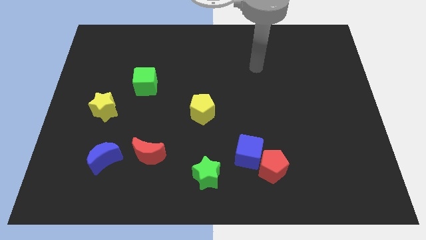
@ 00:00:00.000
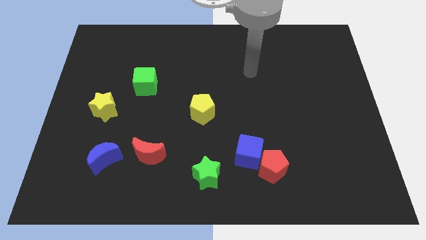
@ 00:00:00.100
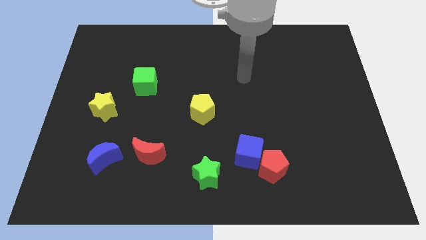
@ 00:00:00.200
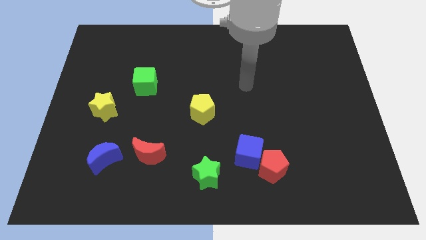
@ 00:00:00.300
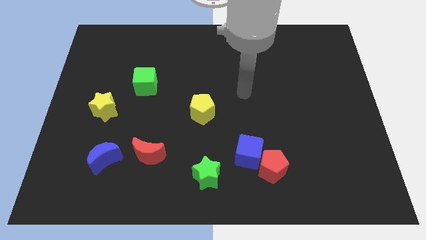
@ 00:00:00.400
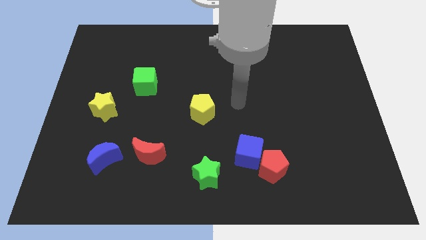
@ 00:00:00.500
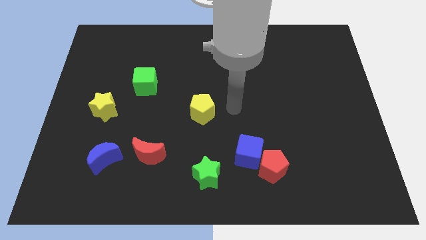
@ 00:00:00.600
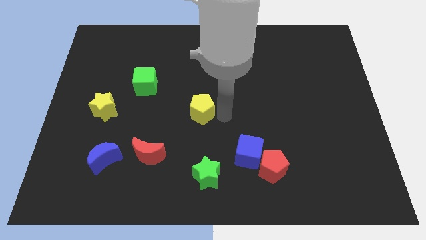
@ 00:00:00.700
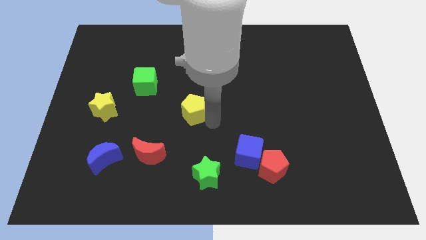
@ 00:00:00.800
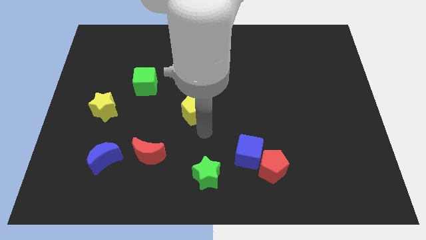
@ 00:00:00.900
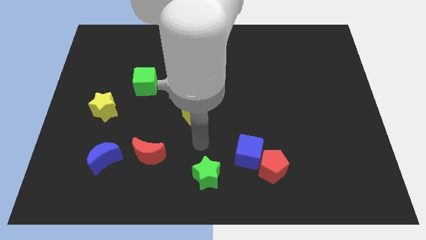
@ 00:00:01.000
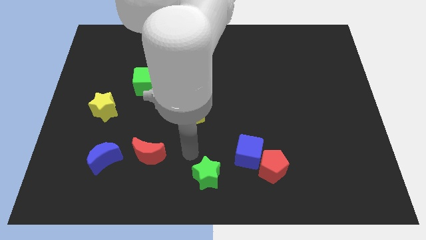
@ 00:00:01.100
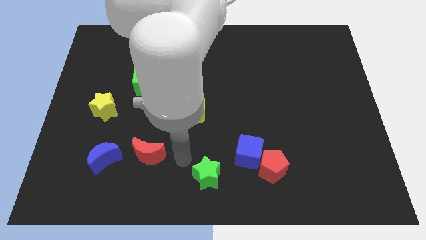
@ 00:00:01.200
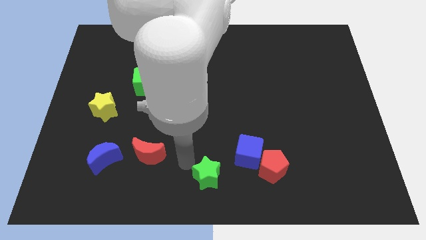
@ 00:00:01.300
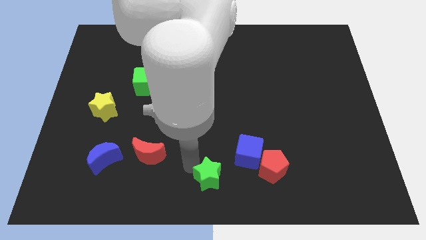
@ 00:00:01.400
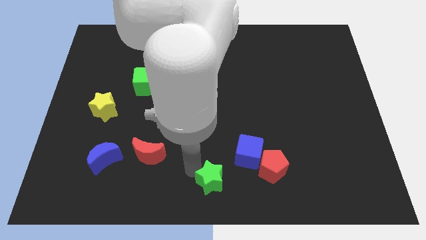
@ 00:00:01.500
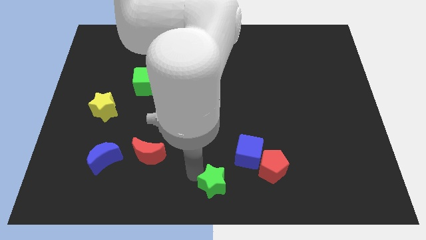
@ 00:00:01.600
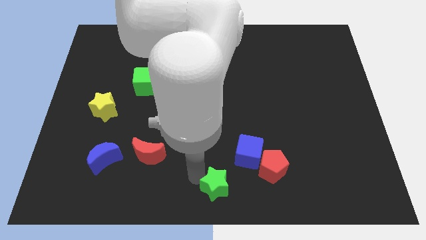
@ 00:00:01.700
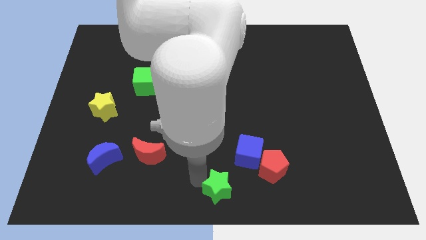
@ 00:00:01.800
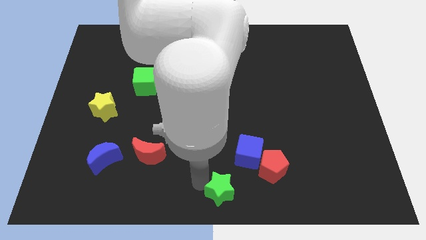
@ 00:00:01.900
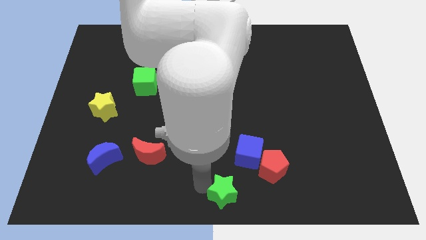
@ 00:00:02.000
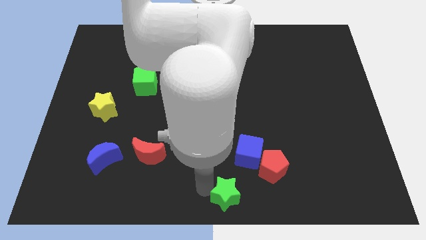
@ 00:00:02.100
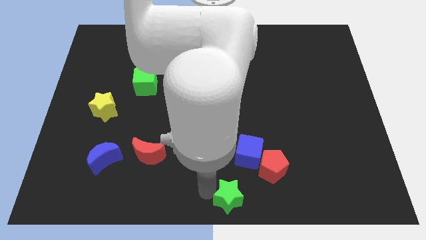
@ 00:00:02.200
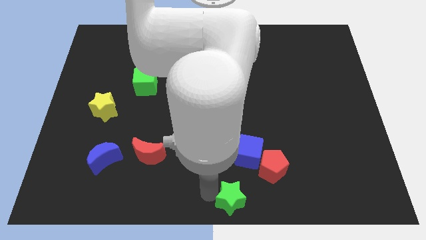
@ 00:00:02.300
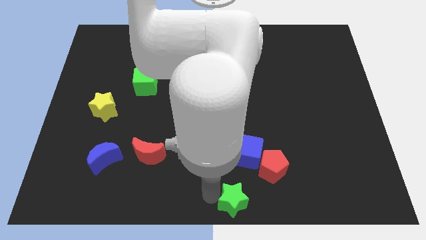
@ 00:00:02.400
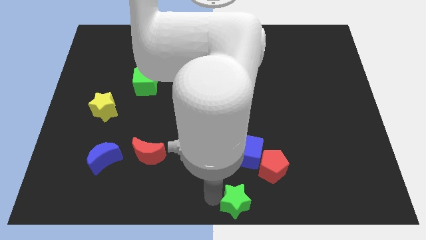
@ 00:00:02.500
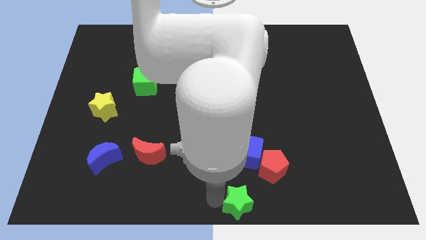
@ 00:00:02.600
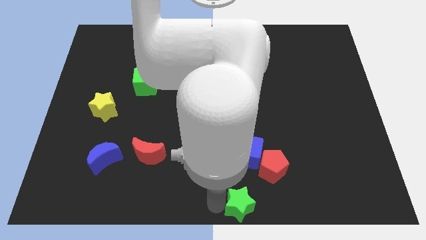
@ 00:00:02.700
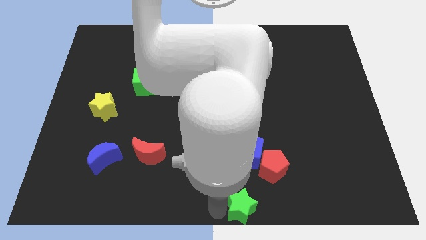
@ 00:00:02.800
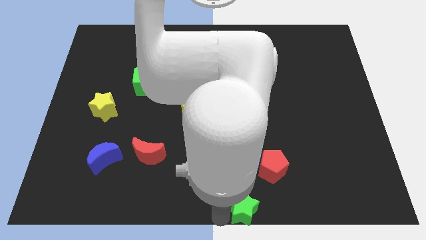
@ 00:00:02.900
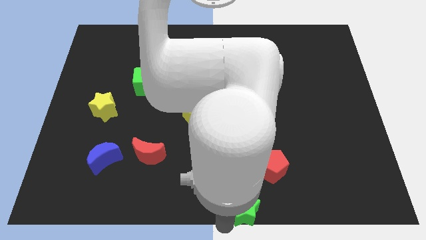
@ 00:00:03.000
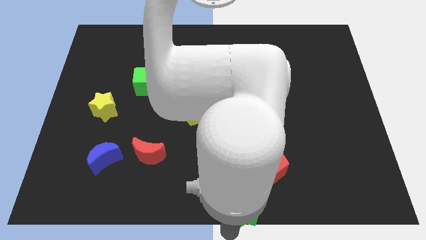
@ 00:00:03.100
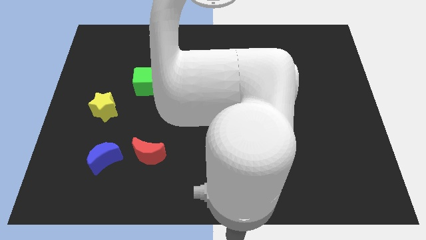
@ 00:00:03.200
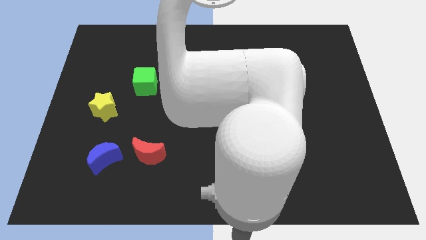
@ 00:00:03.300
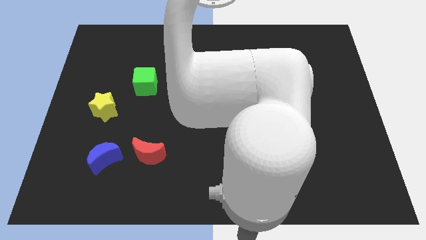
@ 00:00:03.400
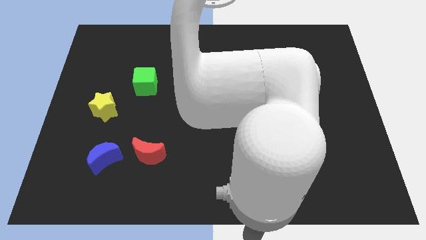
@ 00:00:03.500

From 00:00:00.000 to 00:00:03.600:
push the green star a little to the right

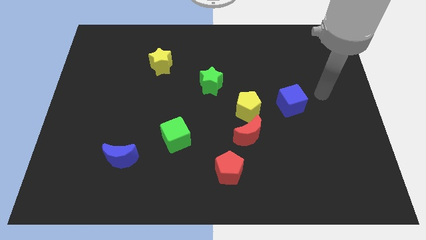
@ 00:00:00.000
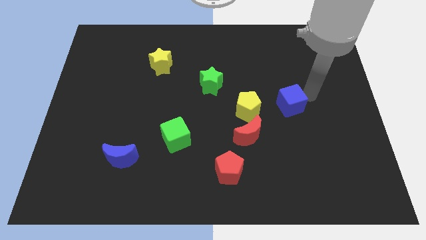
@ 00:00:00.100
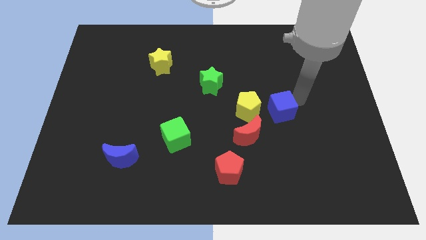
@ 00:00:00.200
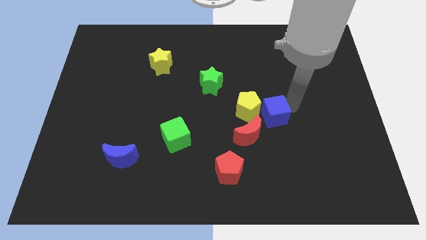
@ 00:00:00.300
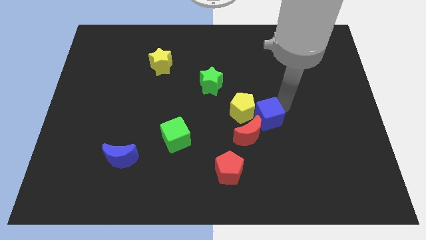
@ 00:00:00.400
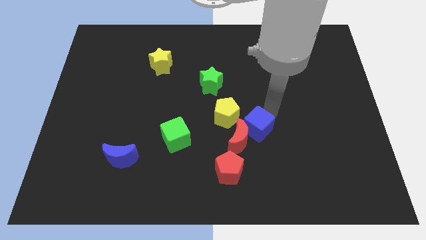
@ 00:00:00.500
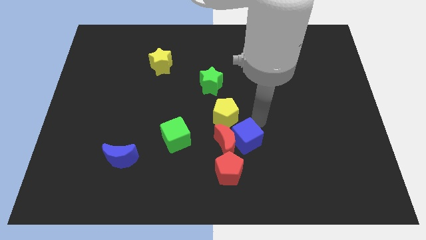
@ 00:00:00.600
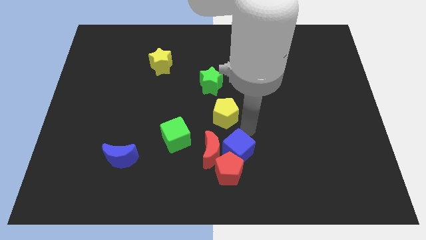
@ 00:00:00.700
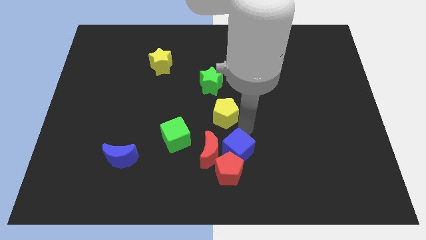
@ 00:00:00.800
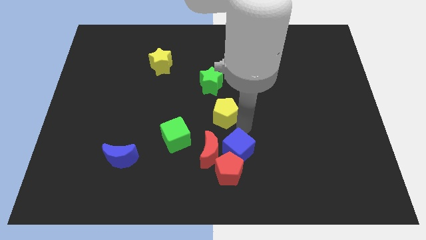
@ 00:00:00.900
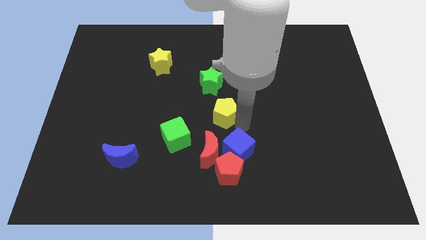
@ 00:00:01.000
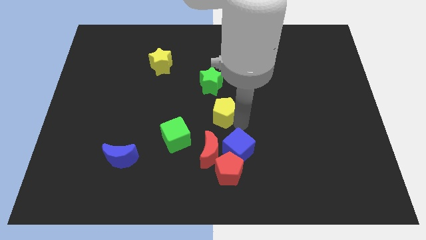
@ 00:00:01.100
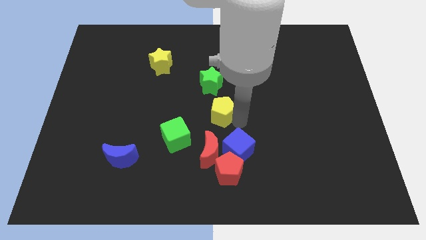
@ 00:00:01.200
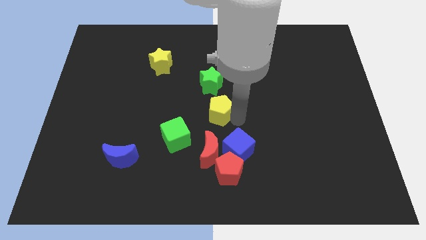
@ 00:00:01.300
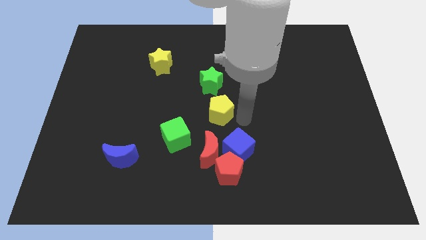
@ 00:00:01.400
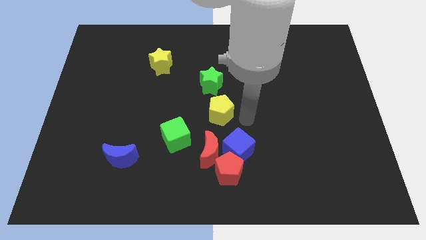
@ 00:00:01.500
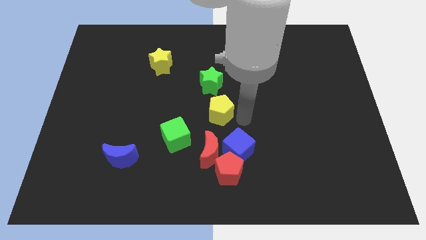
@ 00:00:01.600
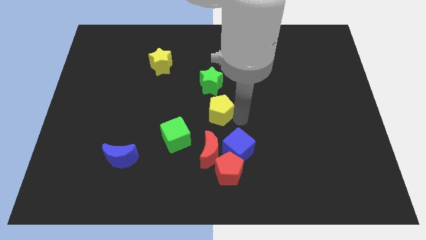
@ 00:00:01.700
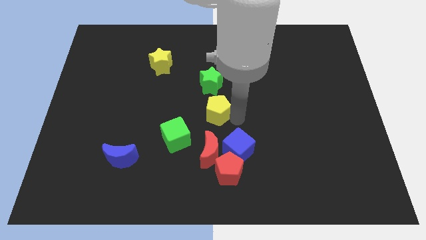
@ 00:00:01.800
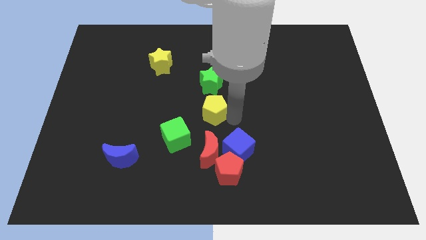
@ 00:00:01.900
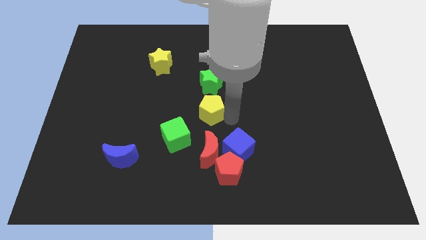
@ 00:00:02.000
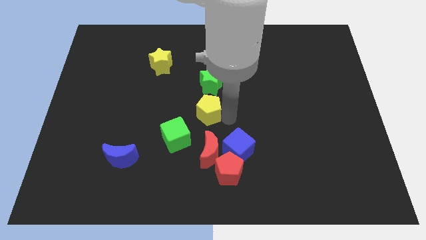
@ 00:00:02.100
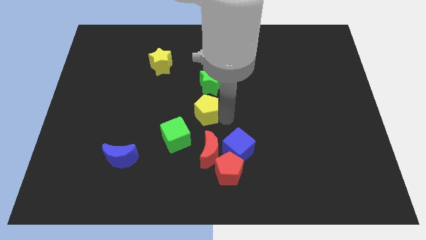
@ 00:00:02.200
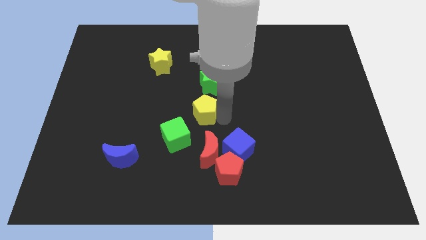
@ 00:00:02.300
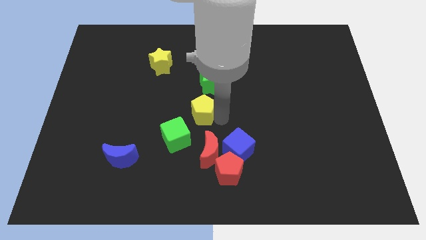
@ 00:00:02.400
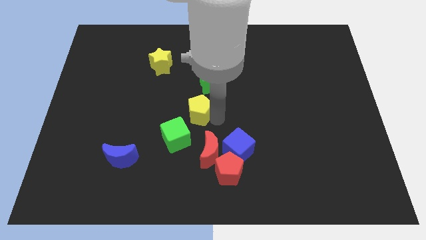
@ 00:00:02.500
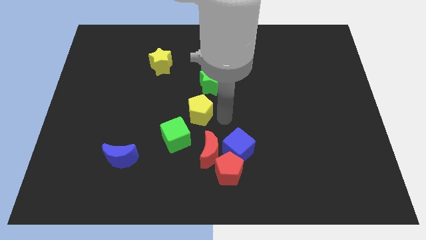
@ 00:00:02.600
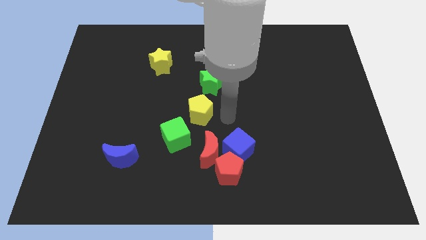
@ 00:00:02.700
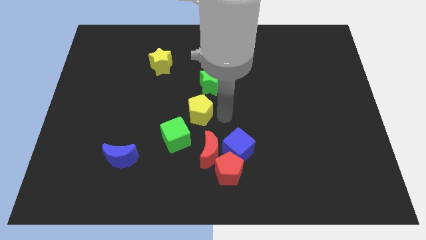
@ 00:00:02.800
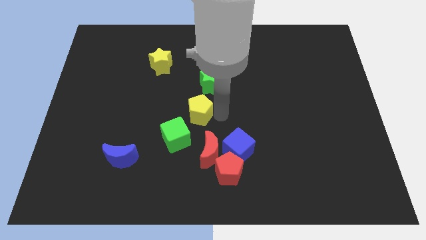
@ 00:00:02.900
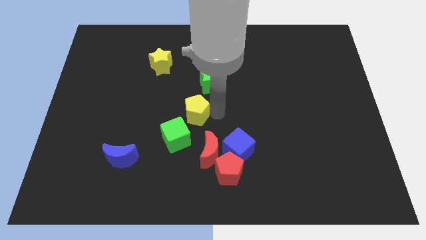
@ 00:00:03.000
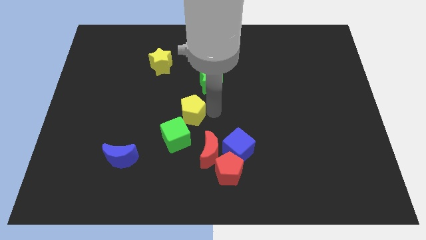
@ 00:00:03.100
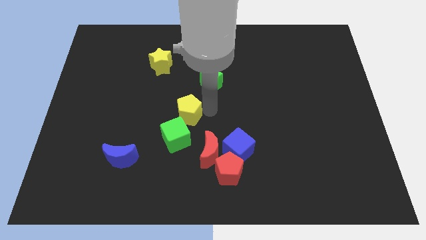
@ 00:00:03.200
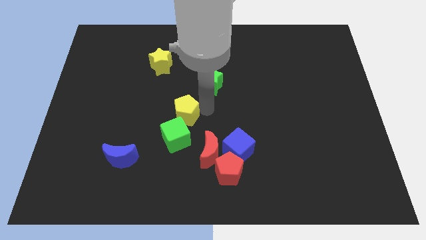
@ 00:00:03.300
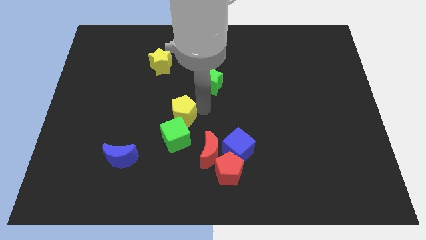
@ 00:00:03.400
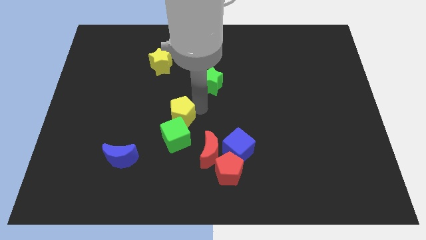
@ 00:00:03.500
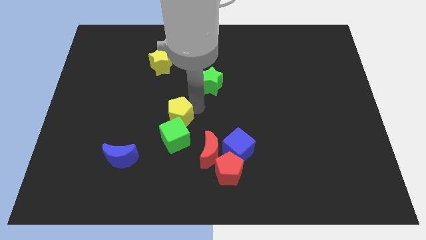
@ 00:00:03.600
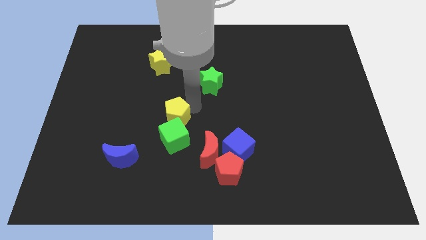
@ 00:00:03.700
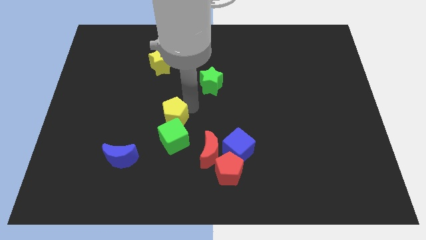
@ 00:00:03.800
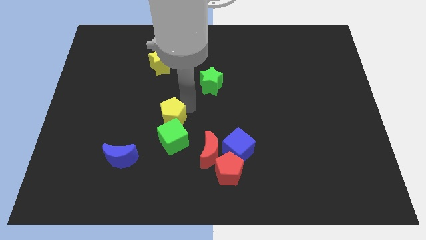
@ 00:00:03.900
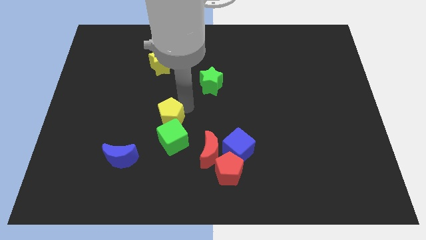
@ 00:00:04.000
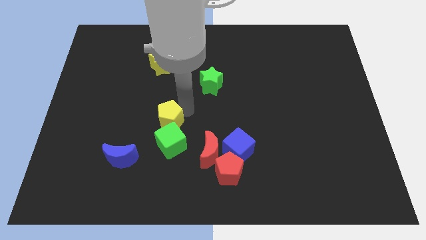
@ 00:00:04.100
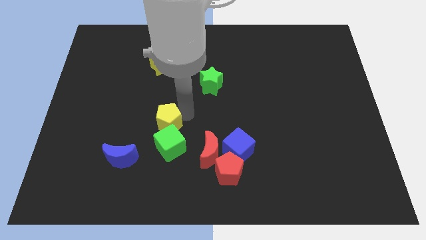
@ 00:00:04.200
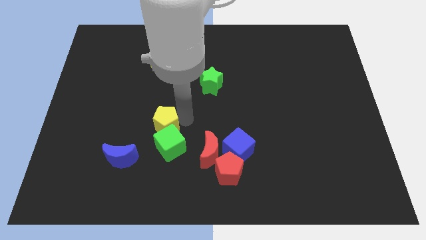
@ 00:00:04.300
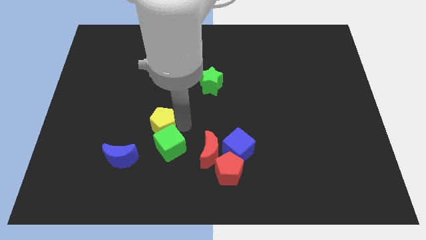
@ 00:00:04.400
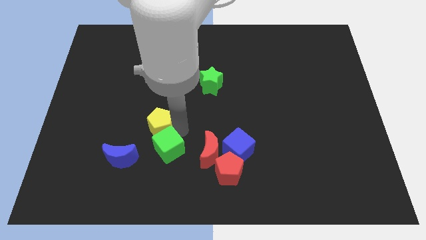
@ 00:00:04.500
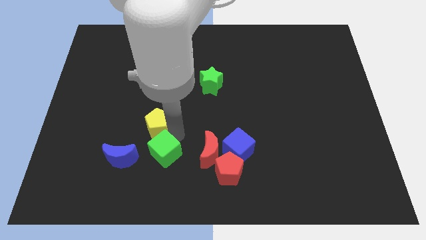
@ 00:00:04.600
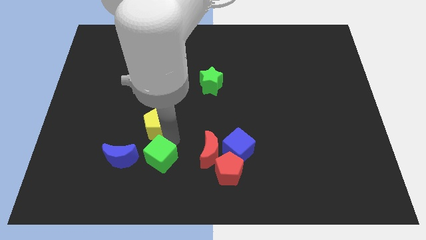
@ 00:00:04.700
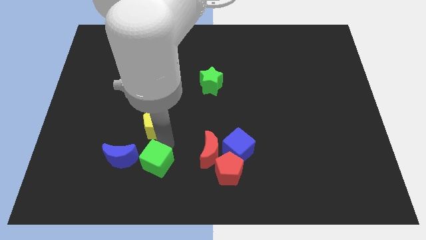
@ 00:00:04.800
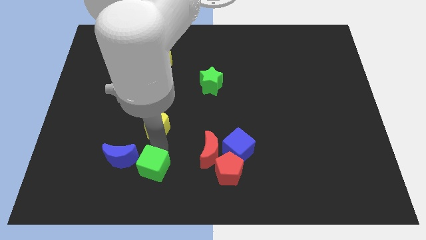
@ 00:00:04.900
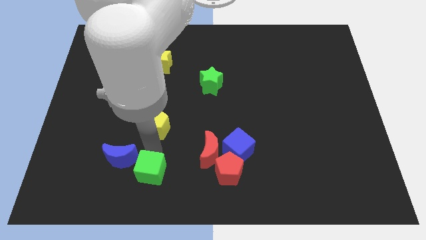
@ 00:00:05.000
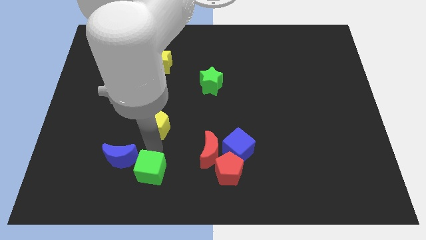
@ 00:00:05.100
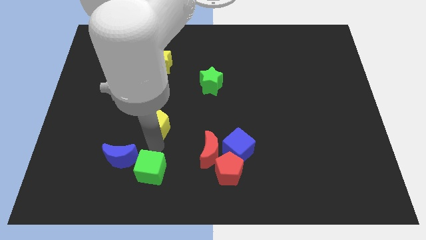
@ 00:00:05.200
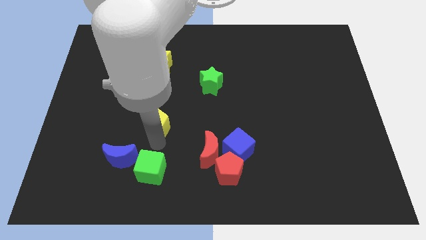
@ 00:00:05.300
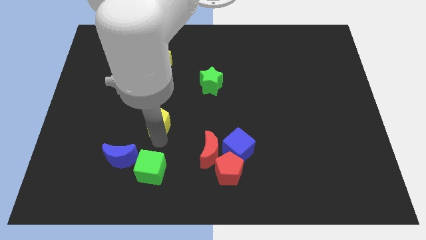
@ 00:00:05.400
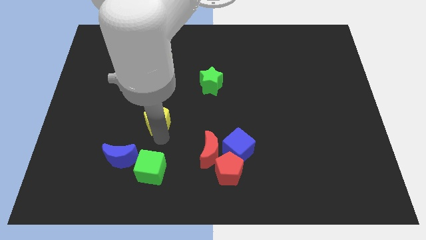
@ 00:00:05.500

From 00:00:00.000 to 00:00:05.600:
slide the yellow pentagon left
